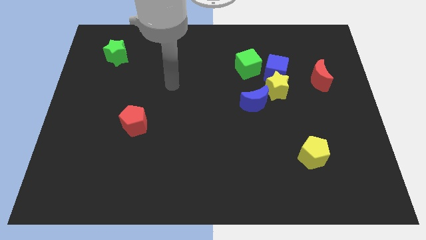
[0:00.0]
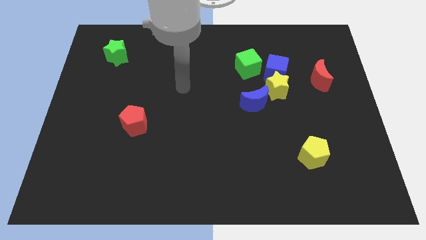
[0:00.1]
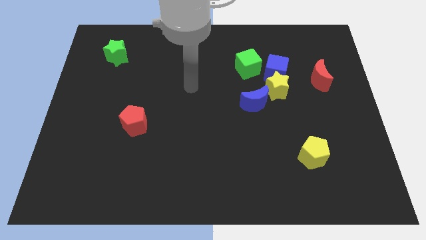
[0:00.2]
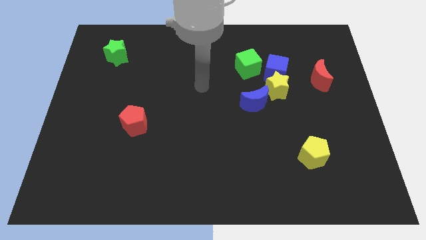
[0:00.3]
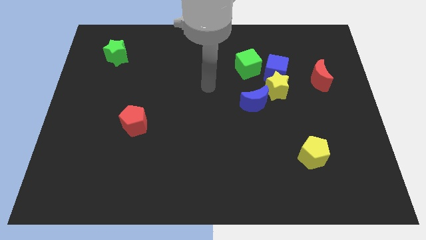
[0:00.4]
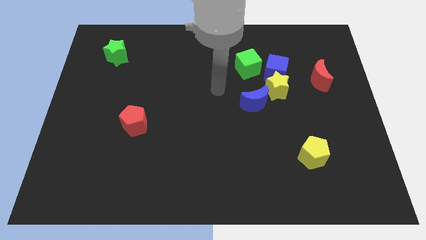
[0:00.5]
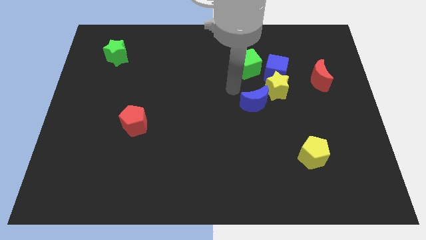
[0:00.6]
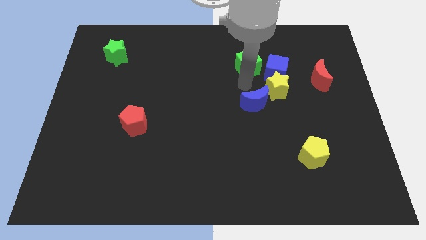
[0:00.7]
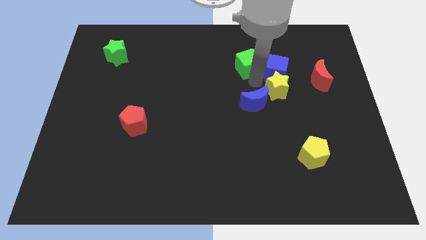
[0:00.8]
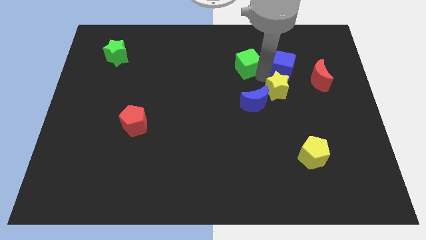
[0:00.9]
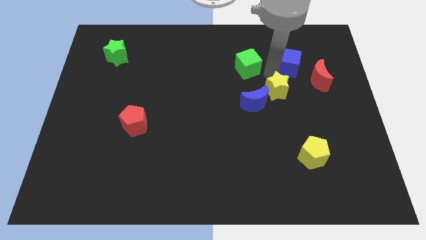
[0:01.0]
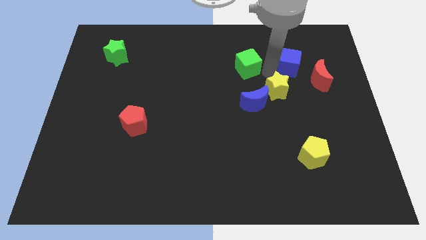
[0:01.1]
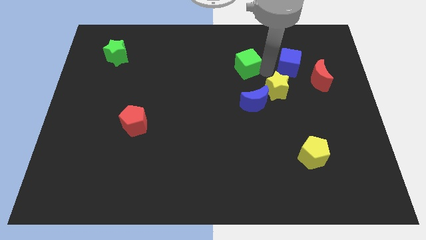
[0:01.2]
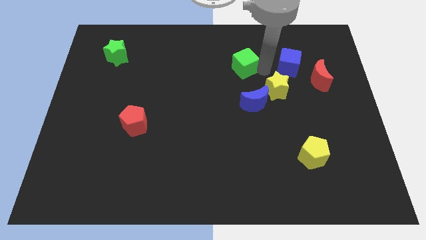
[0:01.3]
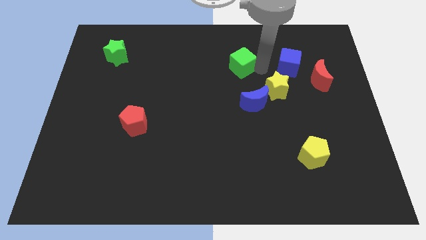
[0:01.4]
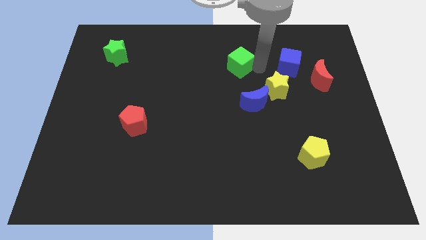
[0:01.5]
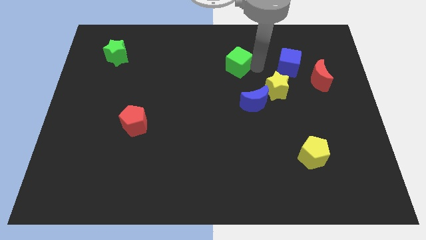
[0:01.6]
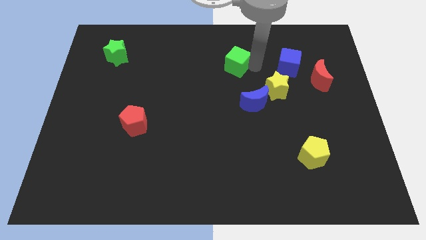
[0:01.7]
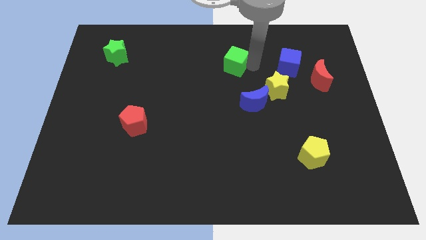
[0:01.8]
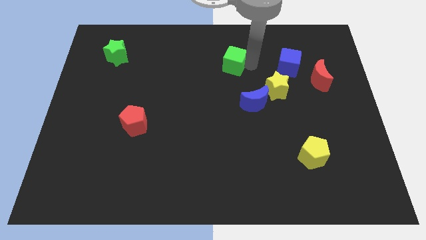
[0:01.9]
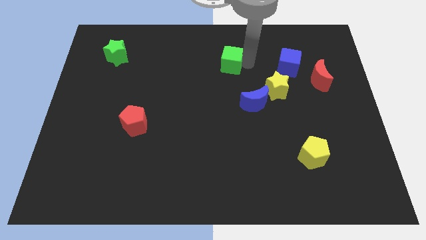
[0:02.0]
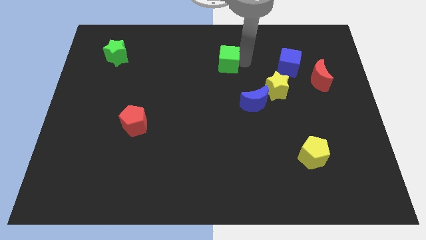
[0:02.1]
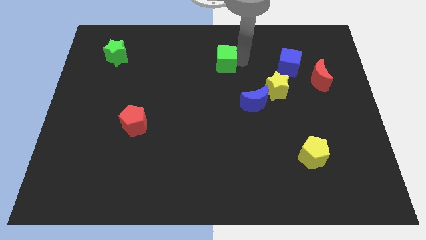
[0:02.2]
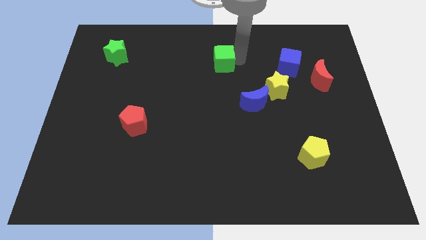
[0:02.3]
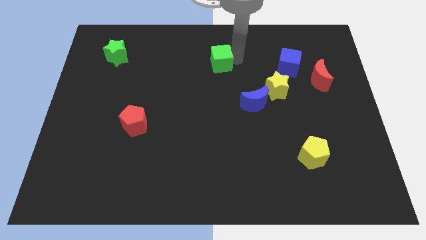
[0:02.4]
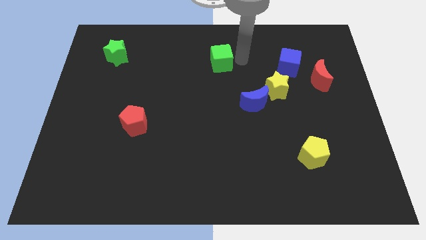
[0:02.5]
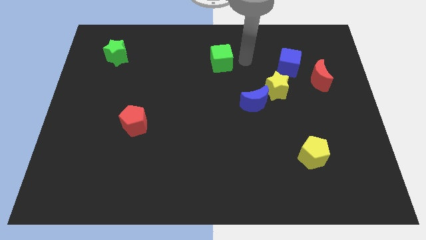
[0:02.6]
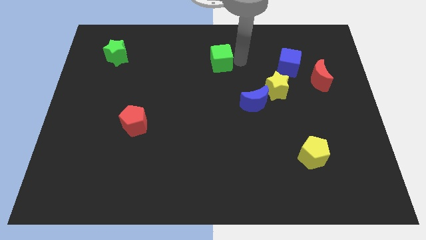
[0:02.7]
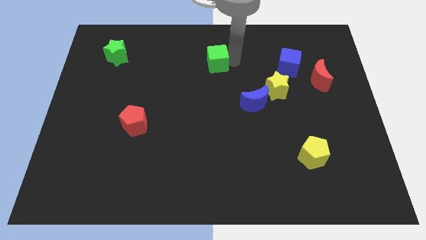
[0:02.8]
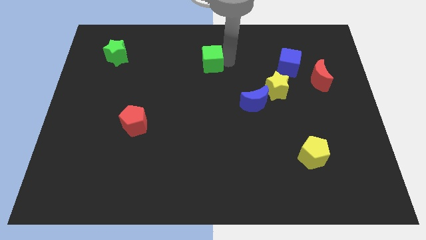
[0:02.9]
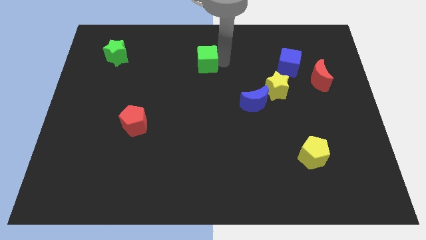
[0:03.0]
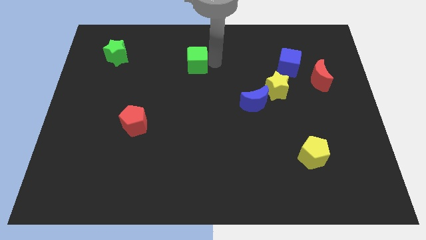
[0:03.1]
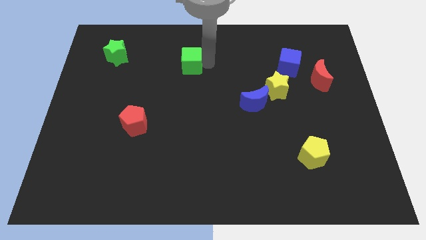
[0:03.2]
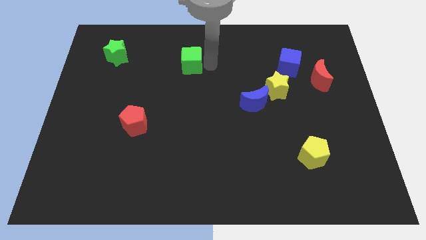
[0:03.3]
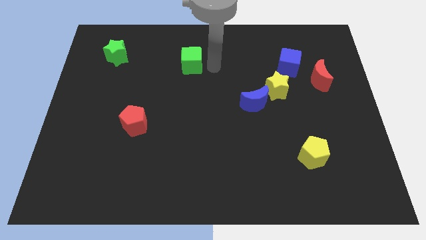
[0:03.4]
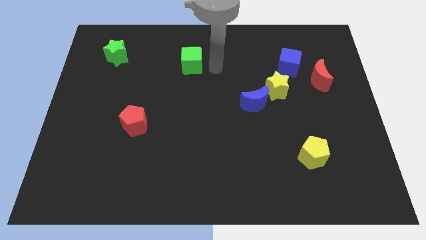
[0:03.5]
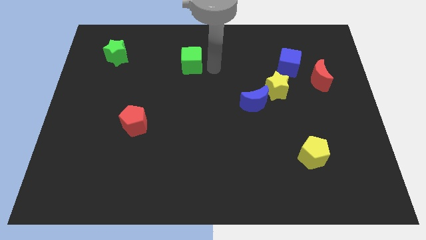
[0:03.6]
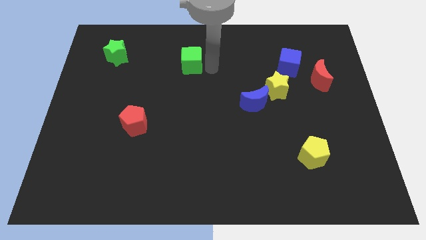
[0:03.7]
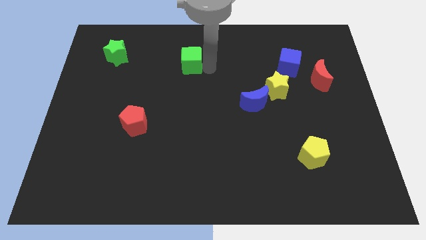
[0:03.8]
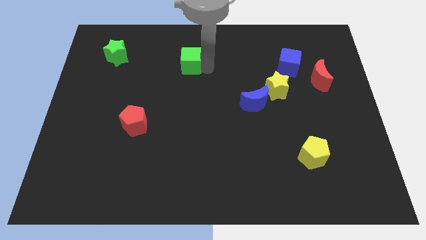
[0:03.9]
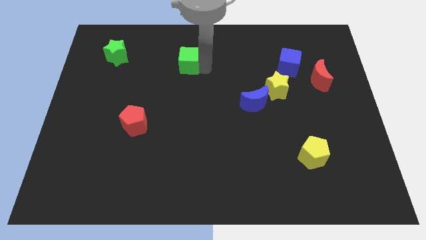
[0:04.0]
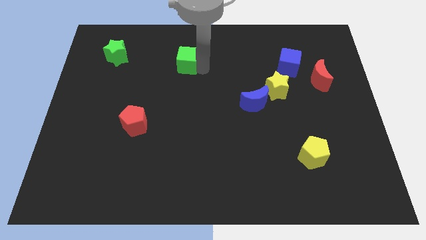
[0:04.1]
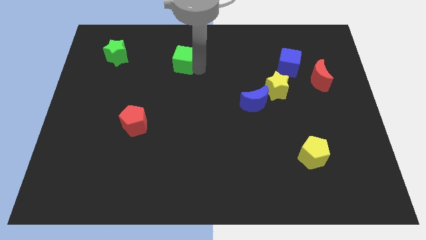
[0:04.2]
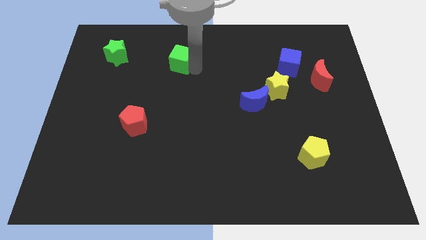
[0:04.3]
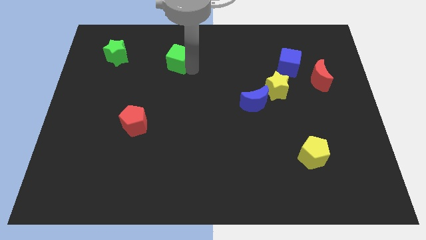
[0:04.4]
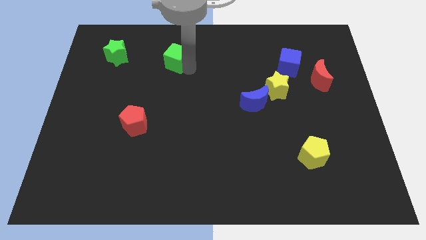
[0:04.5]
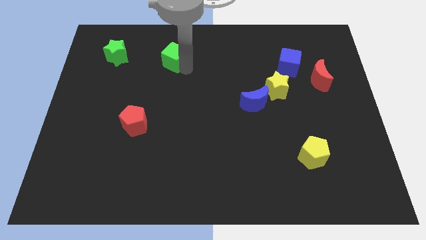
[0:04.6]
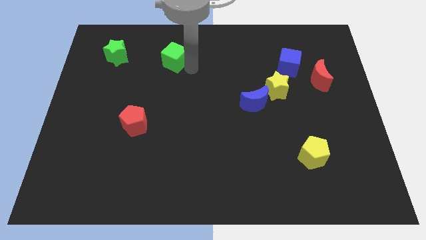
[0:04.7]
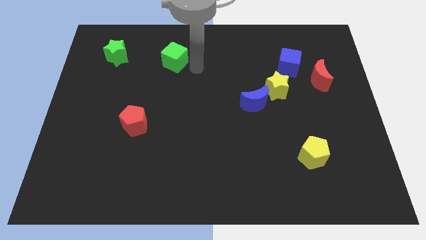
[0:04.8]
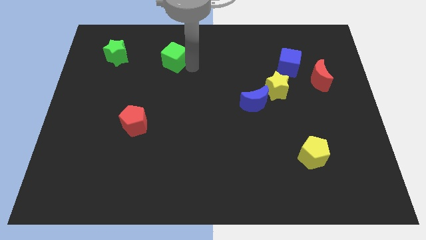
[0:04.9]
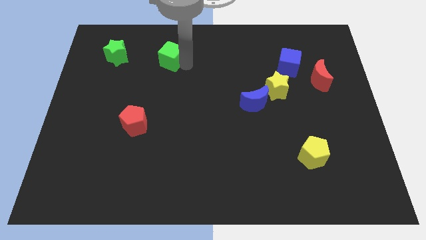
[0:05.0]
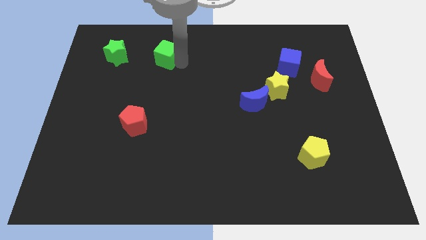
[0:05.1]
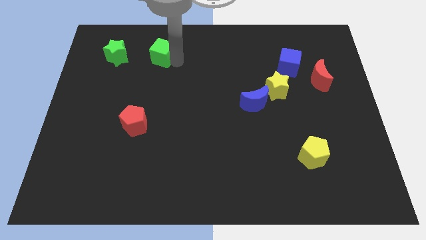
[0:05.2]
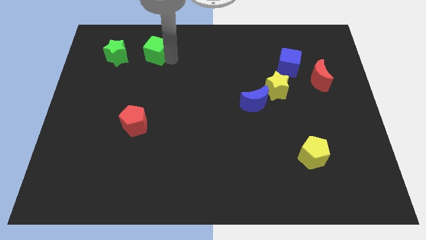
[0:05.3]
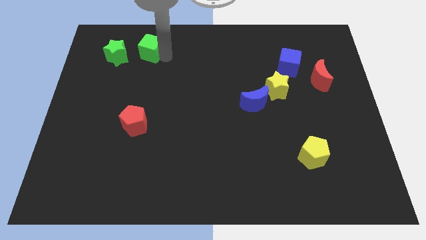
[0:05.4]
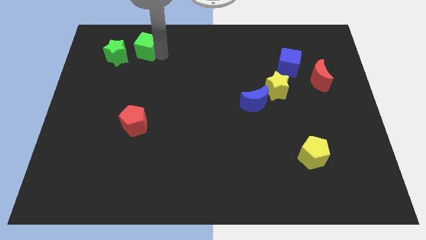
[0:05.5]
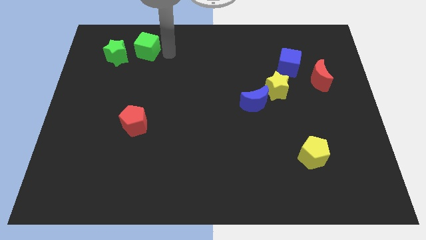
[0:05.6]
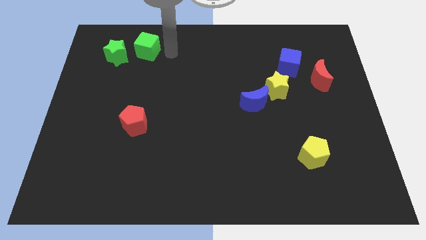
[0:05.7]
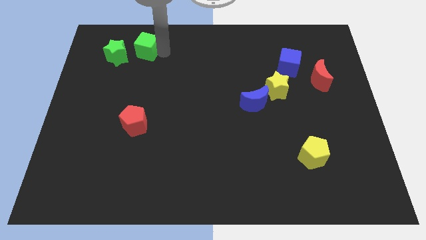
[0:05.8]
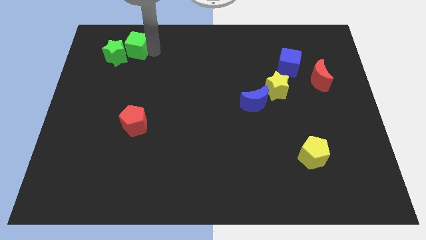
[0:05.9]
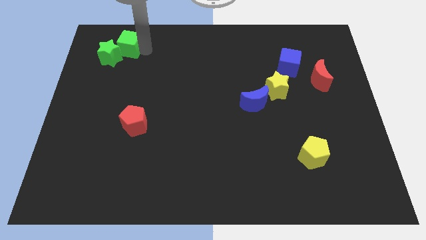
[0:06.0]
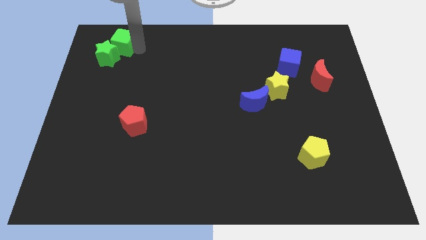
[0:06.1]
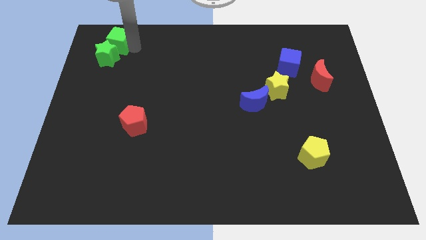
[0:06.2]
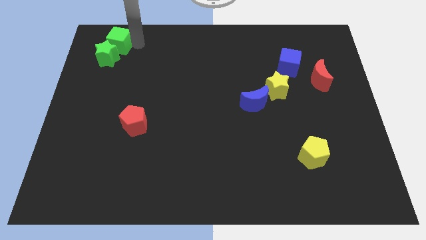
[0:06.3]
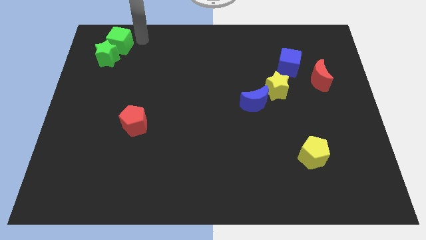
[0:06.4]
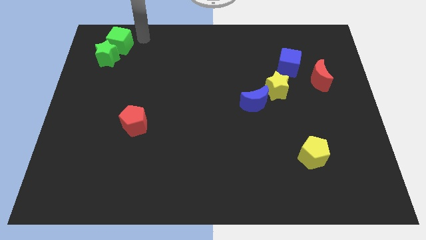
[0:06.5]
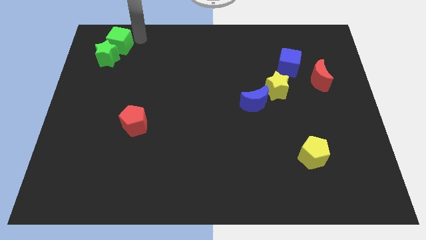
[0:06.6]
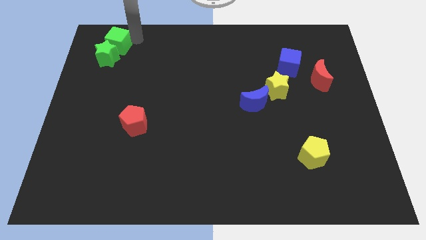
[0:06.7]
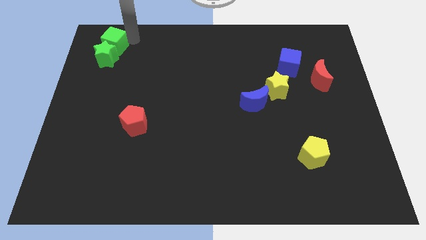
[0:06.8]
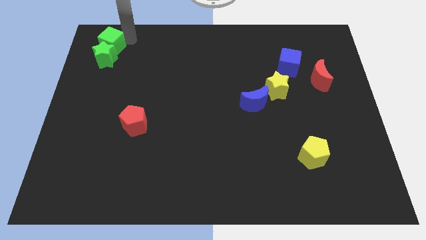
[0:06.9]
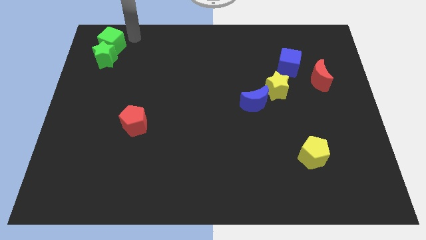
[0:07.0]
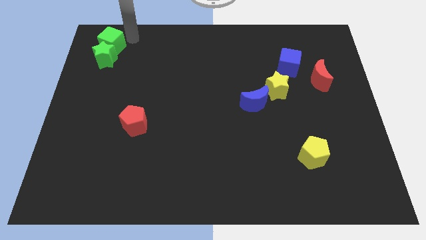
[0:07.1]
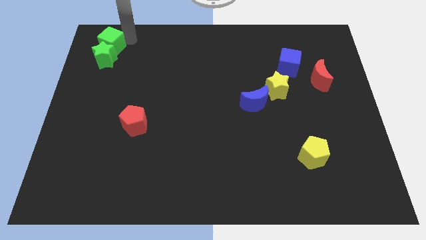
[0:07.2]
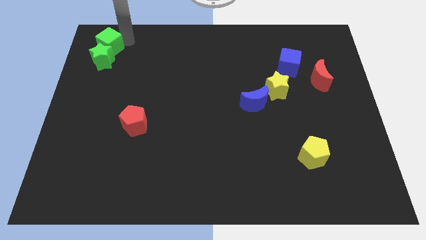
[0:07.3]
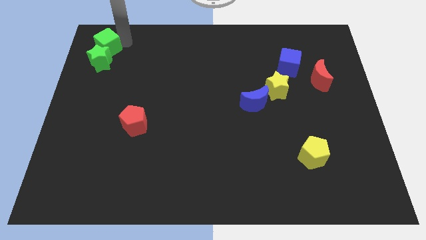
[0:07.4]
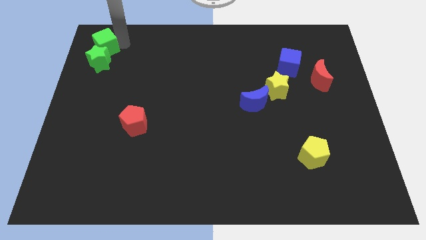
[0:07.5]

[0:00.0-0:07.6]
move the green cube to the top left of the board
